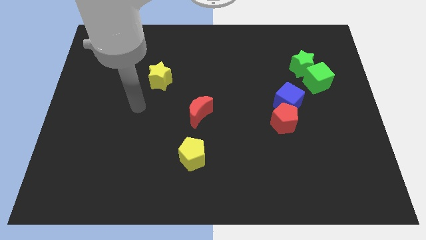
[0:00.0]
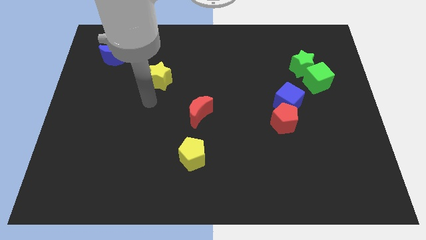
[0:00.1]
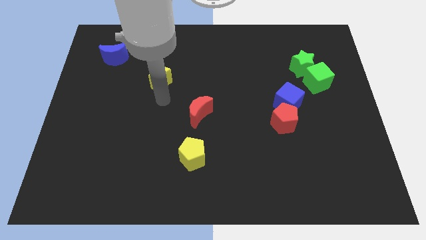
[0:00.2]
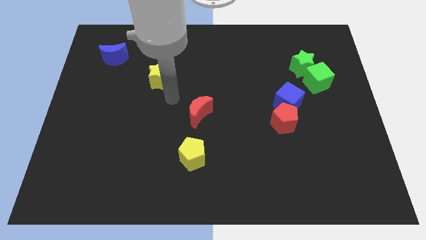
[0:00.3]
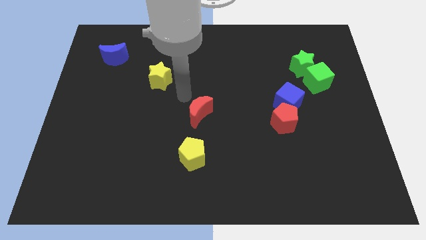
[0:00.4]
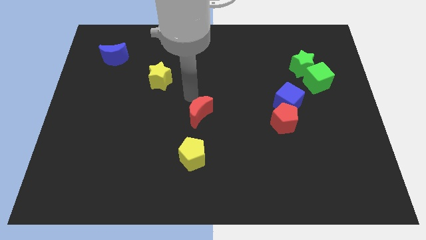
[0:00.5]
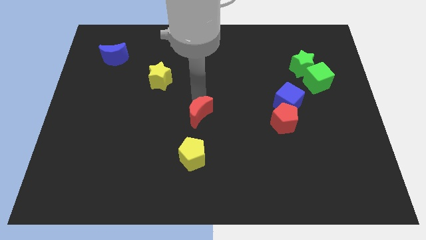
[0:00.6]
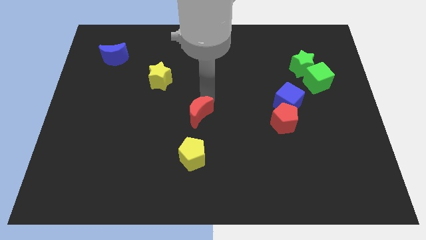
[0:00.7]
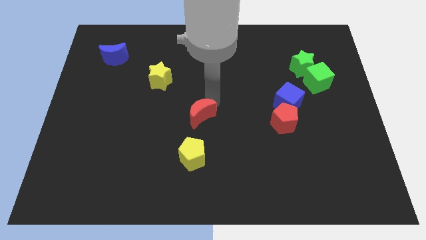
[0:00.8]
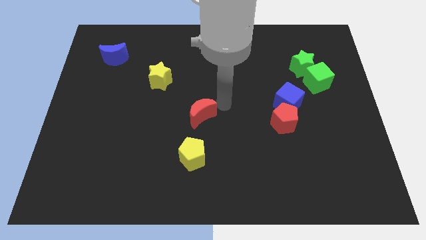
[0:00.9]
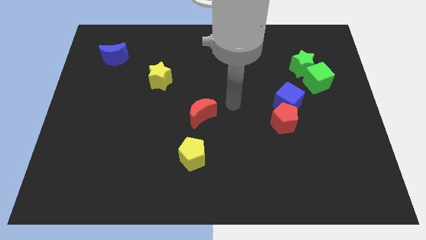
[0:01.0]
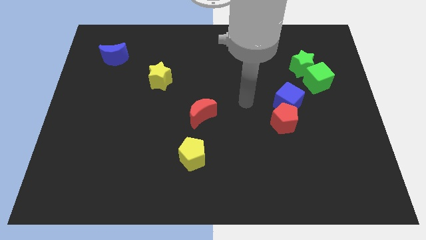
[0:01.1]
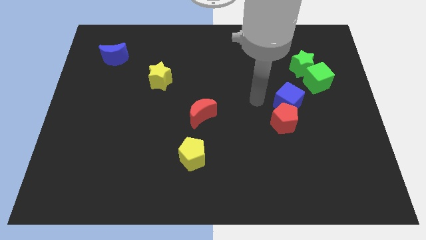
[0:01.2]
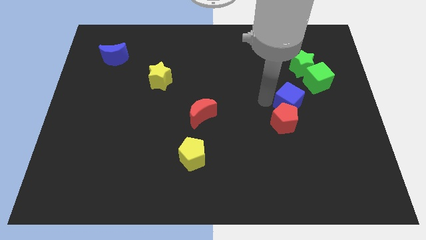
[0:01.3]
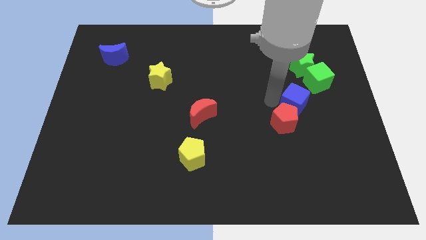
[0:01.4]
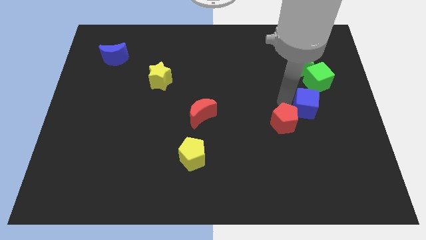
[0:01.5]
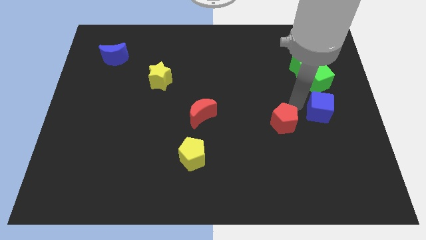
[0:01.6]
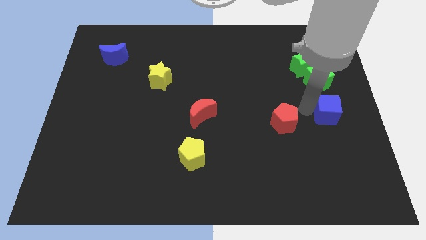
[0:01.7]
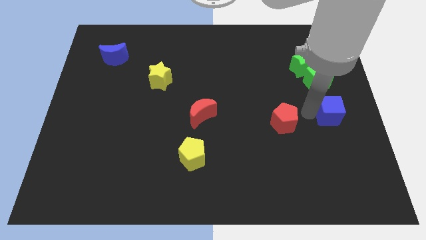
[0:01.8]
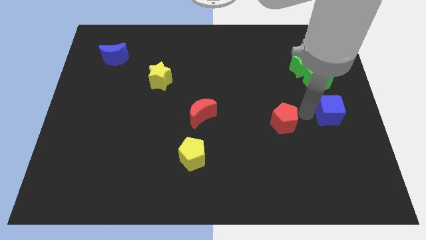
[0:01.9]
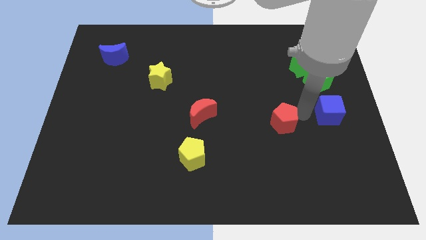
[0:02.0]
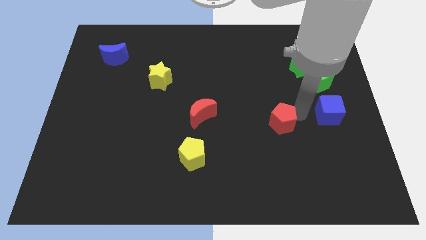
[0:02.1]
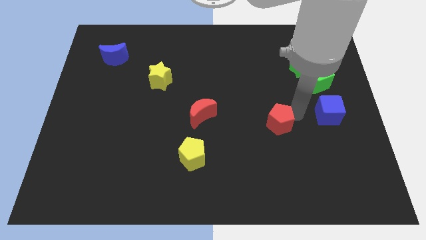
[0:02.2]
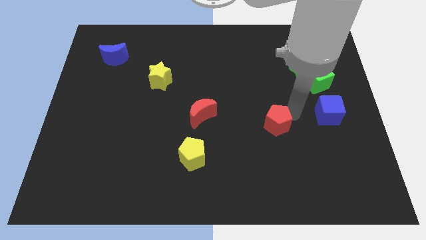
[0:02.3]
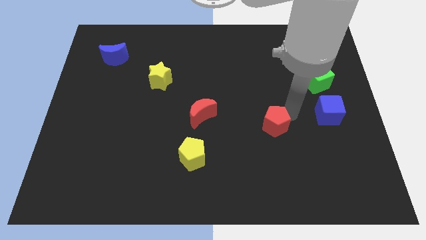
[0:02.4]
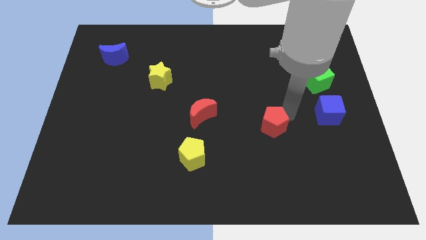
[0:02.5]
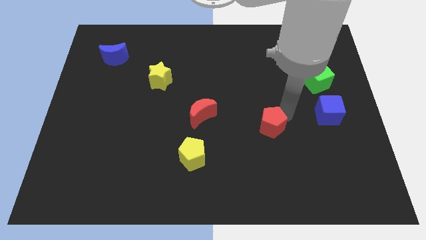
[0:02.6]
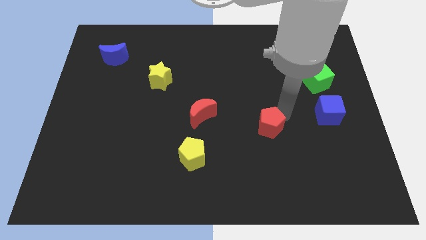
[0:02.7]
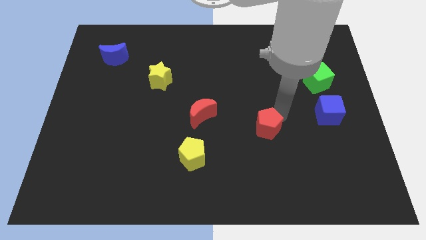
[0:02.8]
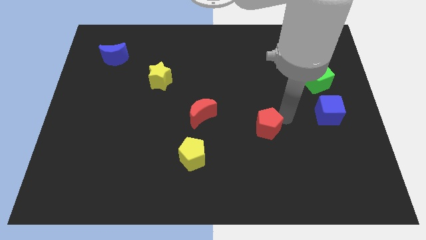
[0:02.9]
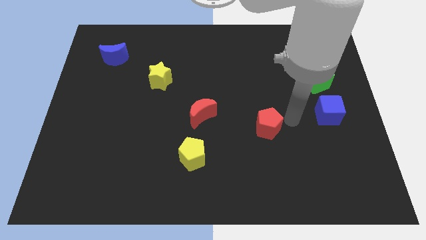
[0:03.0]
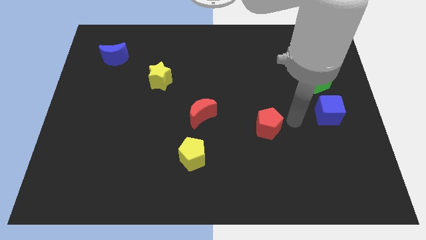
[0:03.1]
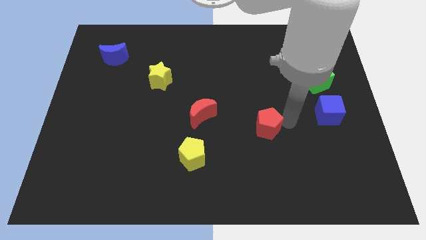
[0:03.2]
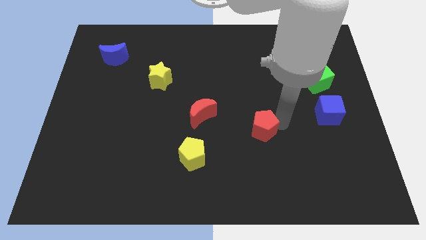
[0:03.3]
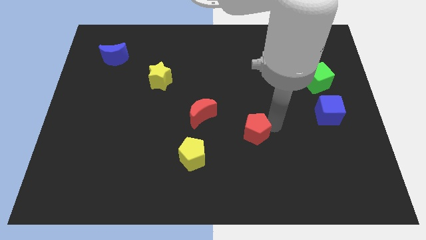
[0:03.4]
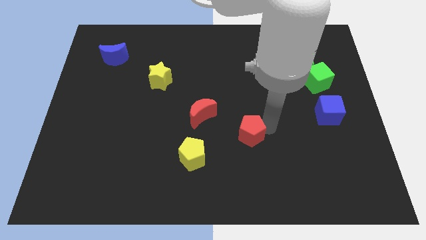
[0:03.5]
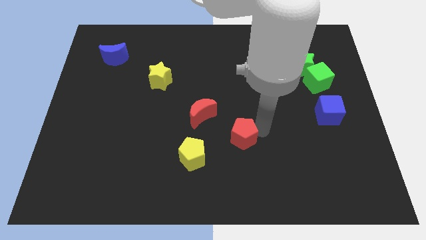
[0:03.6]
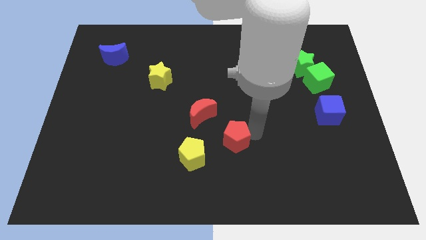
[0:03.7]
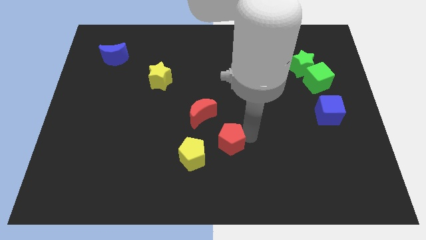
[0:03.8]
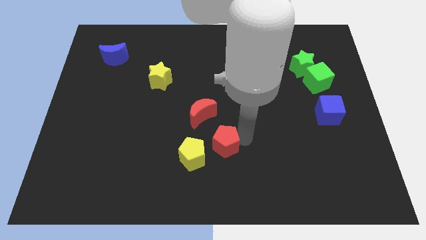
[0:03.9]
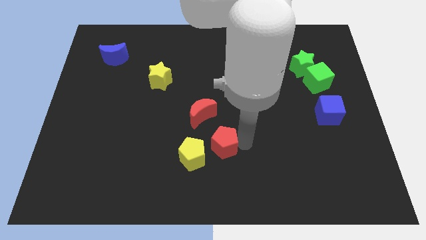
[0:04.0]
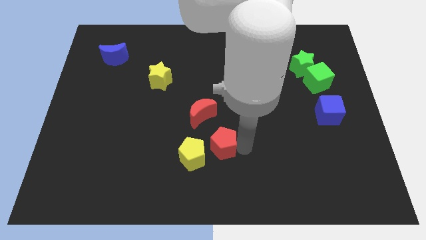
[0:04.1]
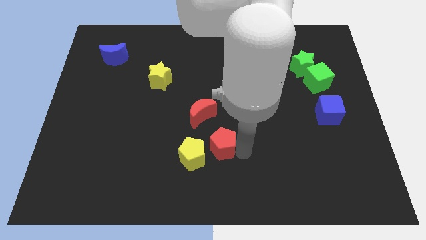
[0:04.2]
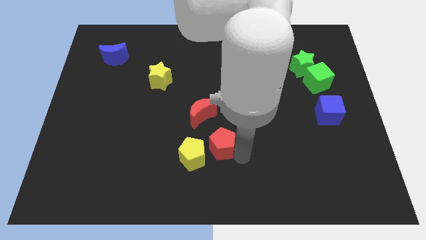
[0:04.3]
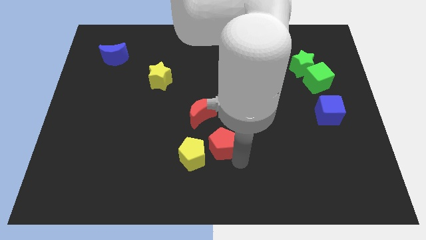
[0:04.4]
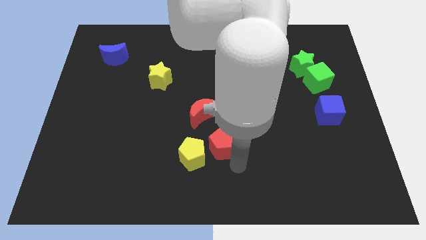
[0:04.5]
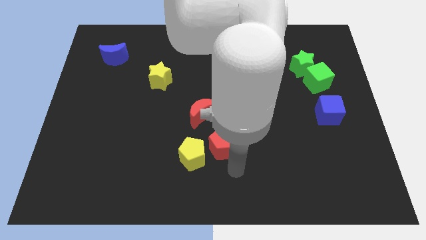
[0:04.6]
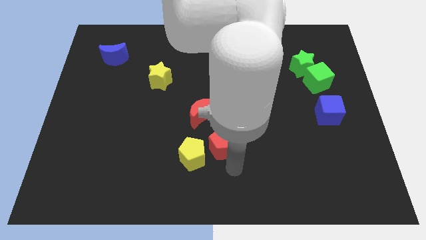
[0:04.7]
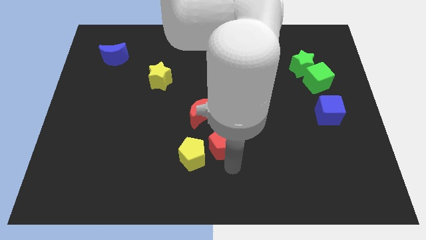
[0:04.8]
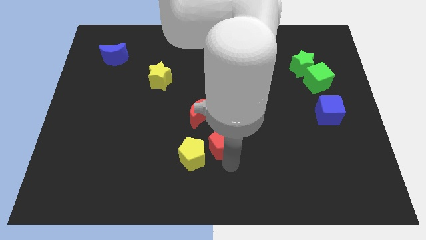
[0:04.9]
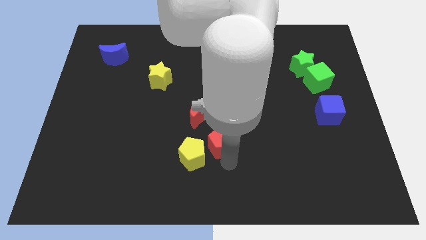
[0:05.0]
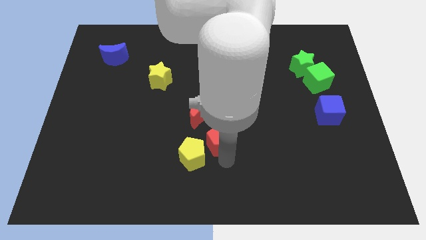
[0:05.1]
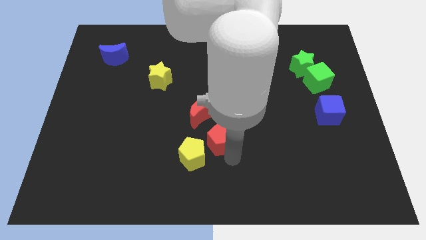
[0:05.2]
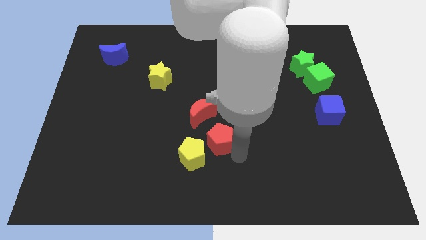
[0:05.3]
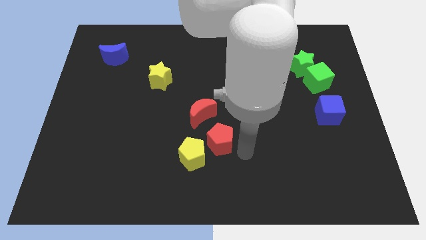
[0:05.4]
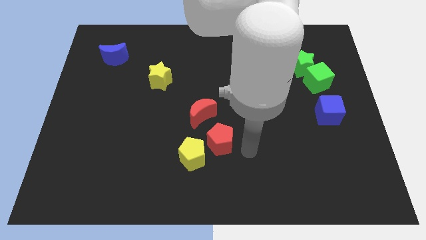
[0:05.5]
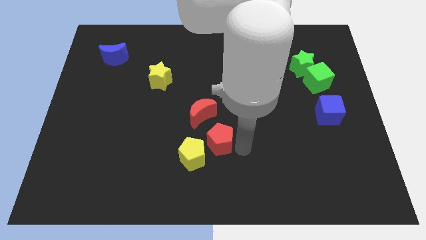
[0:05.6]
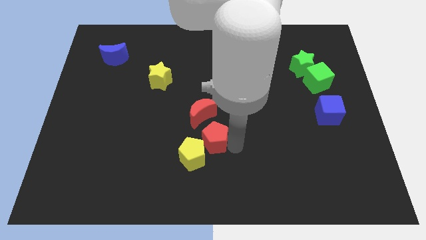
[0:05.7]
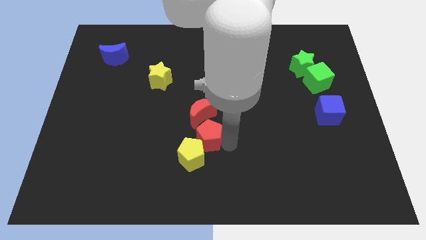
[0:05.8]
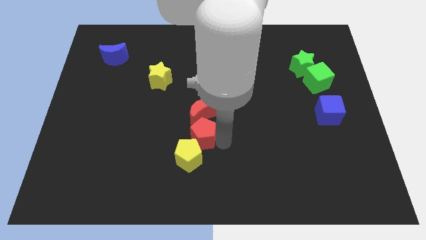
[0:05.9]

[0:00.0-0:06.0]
push the red pentagon diagonally down and to the left of the red moon
